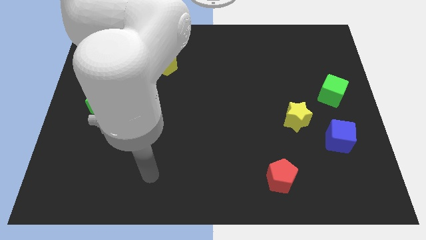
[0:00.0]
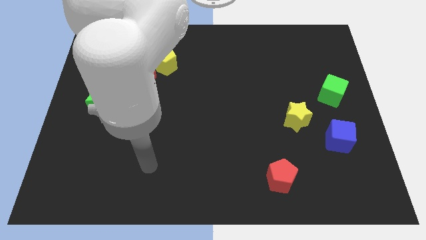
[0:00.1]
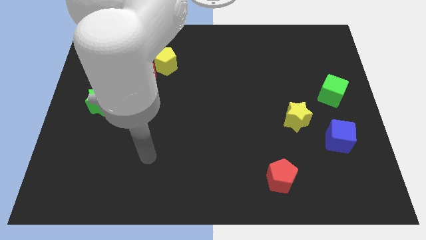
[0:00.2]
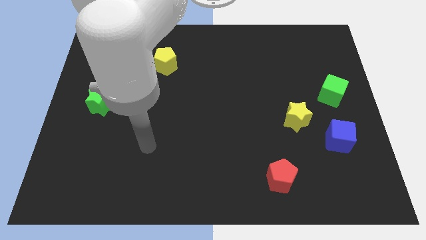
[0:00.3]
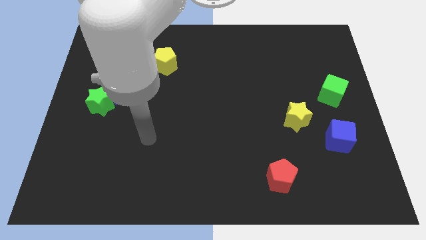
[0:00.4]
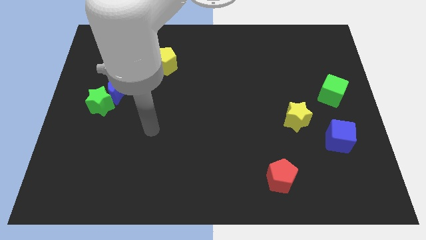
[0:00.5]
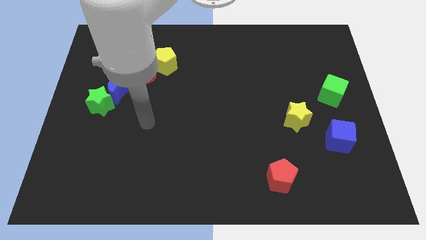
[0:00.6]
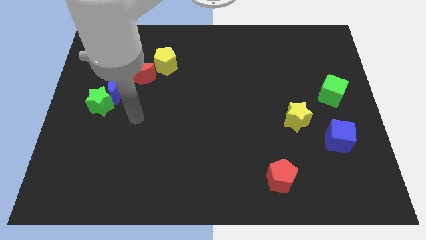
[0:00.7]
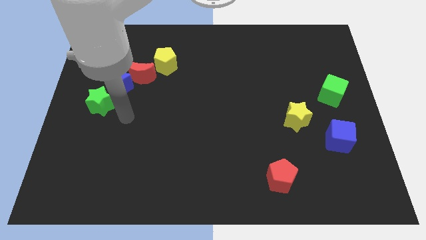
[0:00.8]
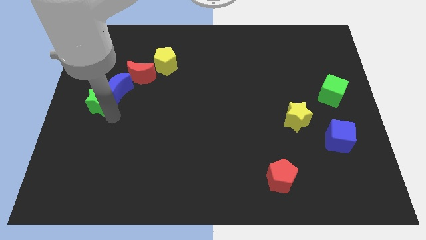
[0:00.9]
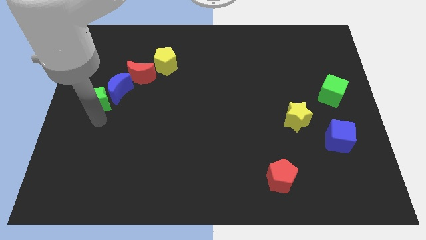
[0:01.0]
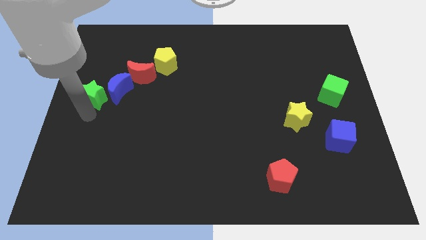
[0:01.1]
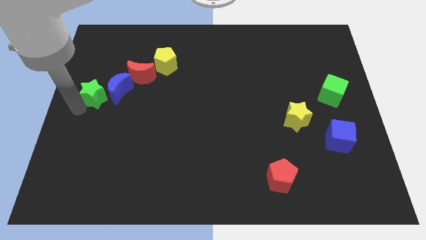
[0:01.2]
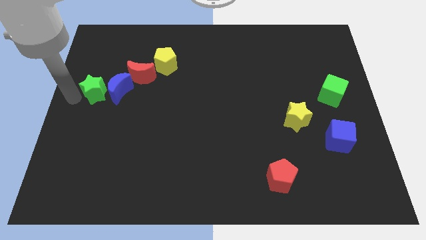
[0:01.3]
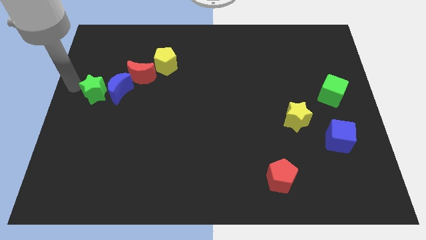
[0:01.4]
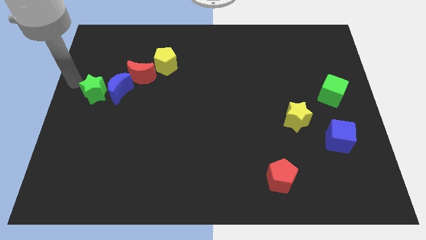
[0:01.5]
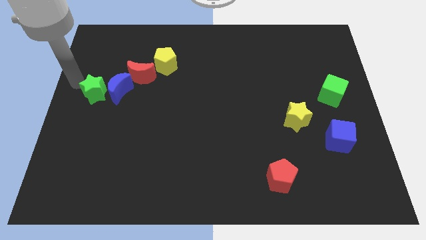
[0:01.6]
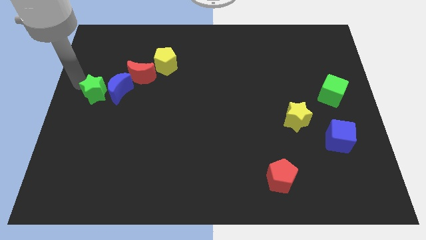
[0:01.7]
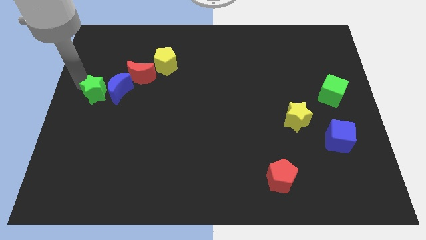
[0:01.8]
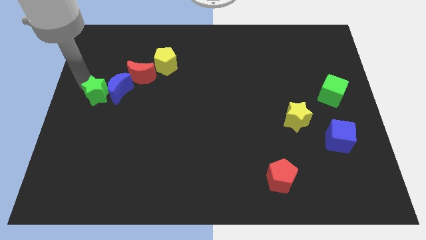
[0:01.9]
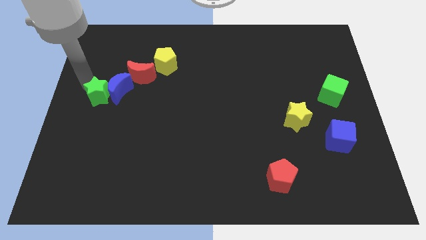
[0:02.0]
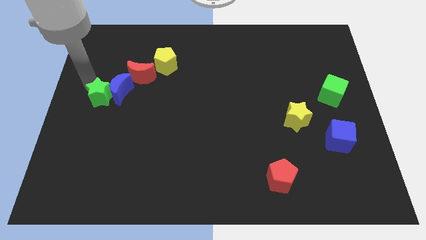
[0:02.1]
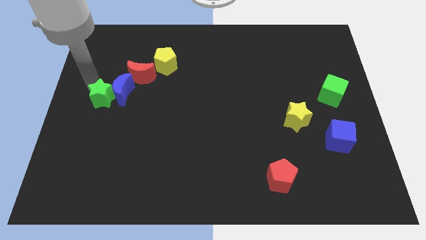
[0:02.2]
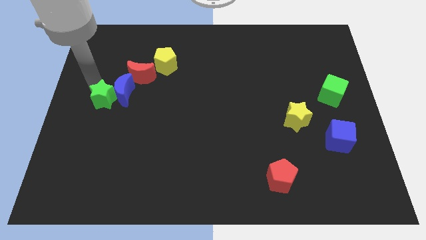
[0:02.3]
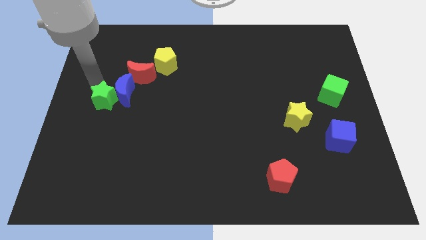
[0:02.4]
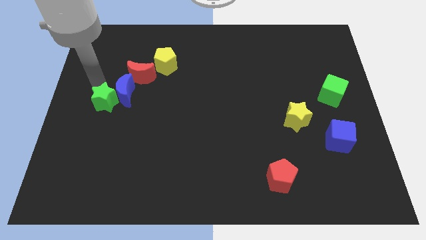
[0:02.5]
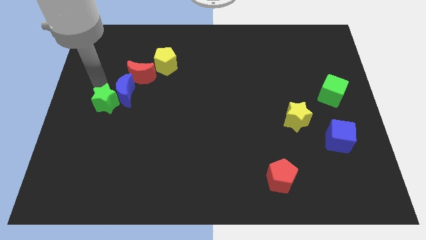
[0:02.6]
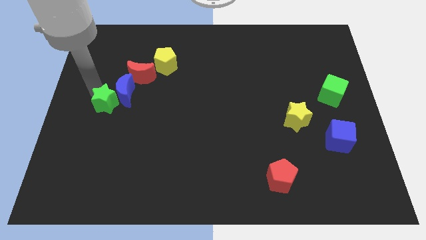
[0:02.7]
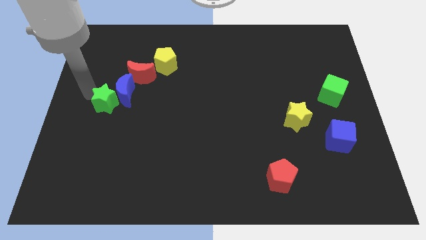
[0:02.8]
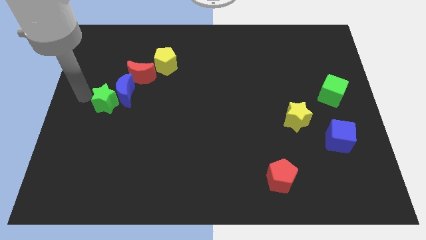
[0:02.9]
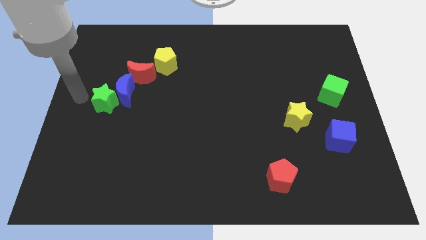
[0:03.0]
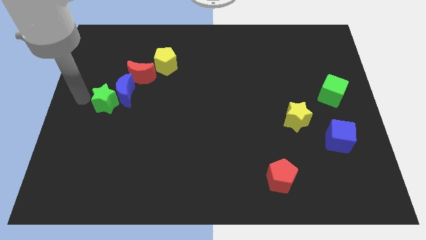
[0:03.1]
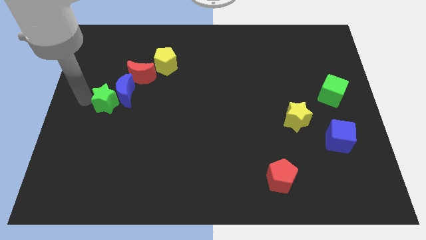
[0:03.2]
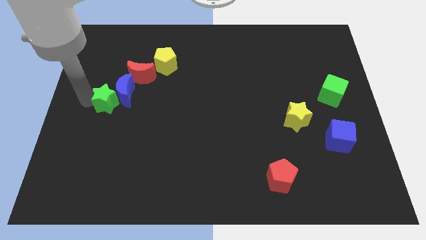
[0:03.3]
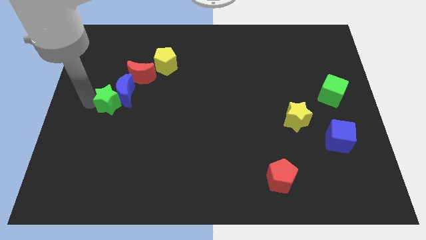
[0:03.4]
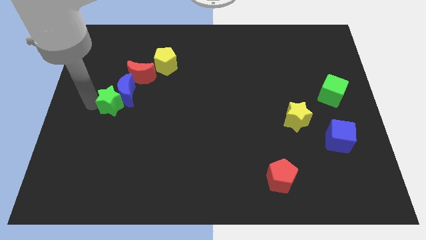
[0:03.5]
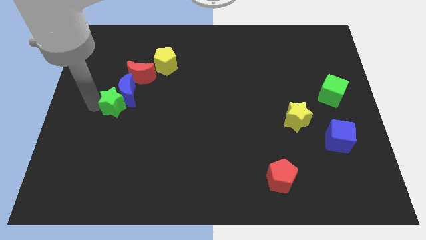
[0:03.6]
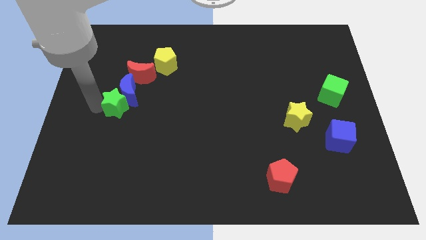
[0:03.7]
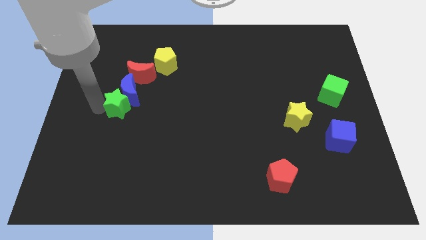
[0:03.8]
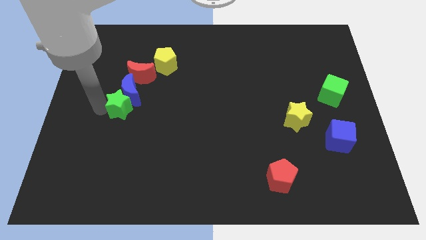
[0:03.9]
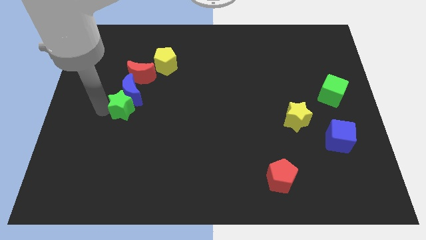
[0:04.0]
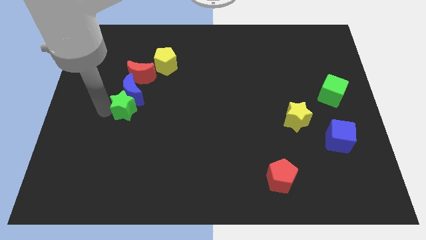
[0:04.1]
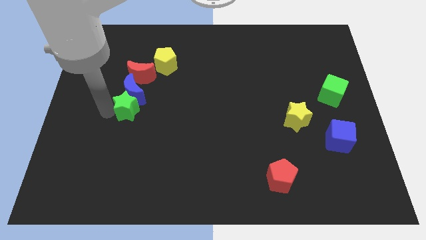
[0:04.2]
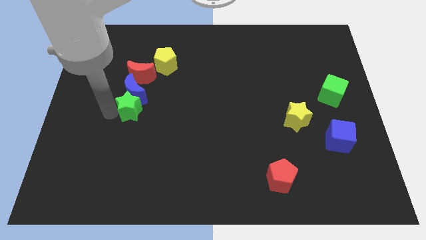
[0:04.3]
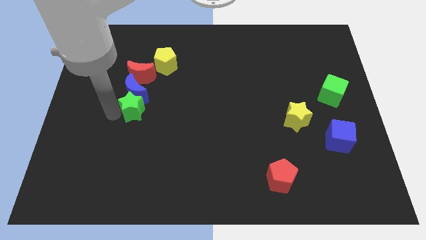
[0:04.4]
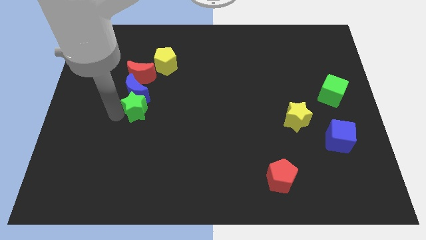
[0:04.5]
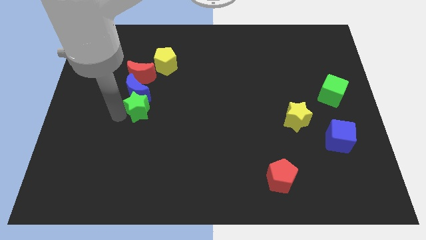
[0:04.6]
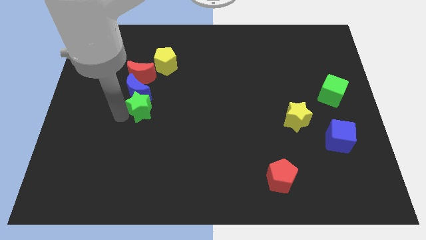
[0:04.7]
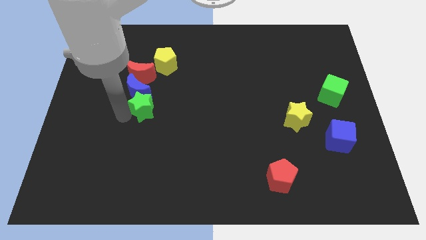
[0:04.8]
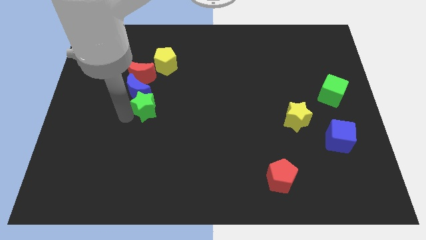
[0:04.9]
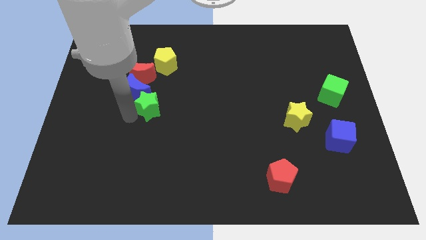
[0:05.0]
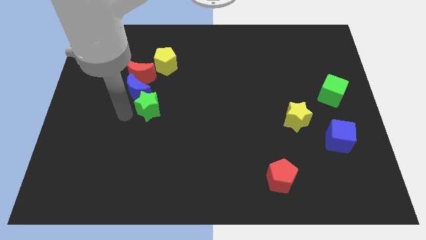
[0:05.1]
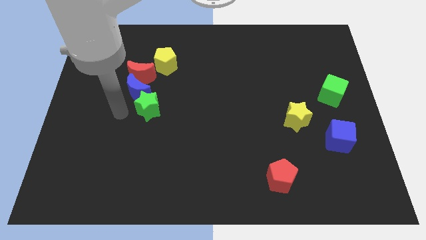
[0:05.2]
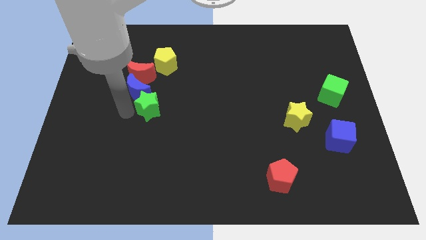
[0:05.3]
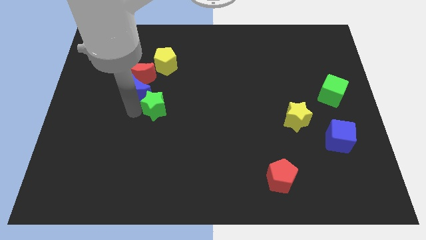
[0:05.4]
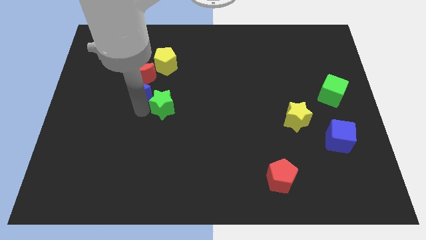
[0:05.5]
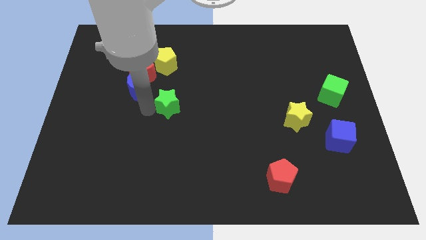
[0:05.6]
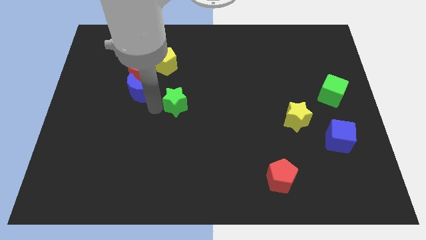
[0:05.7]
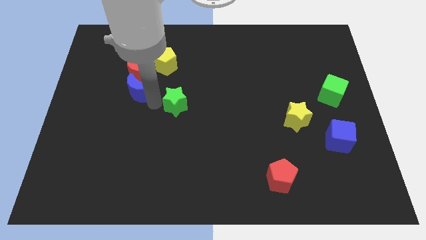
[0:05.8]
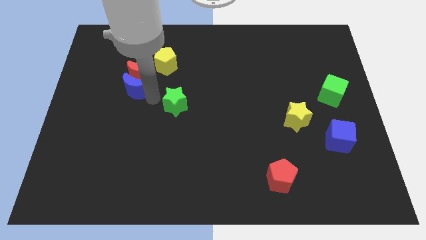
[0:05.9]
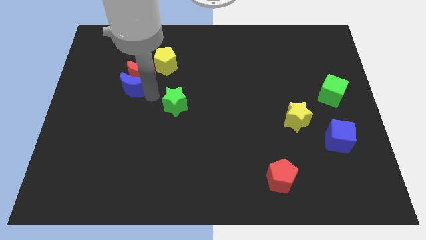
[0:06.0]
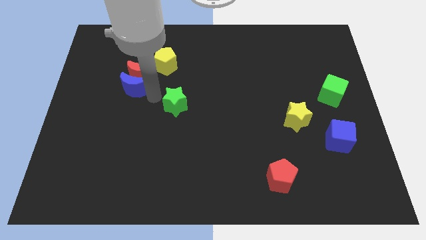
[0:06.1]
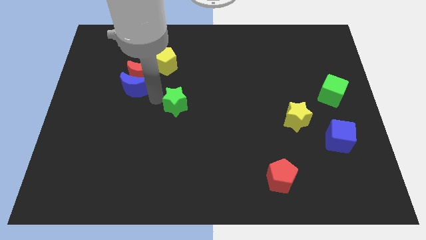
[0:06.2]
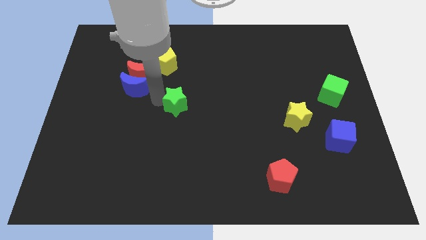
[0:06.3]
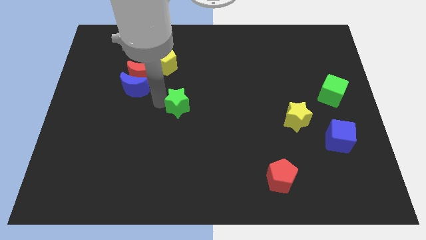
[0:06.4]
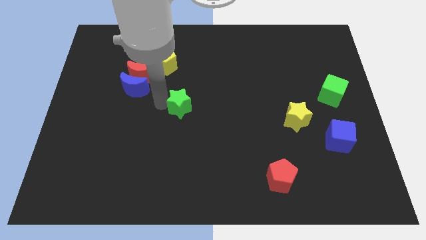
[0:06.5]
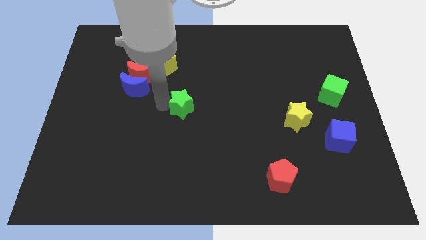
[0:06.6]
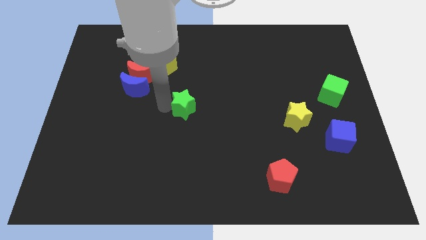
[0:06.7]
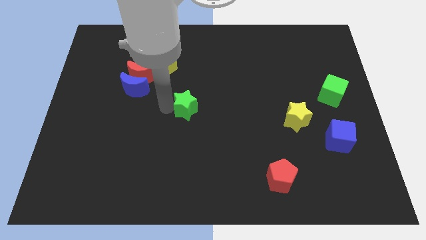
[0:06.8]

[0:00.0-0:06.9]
slide the green star to the right

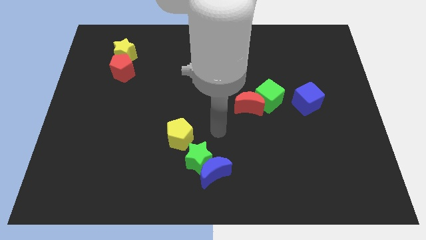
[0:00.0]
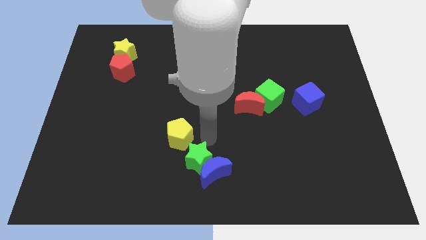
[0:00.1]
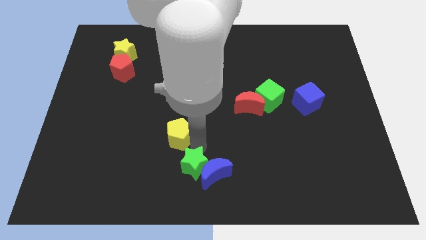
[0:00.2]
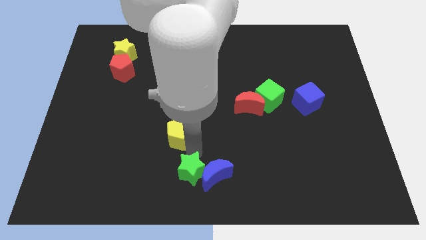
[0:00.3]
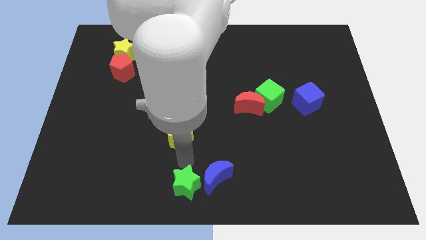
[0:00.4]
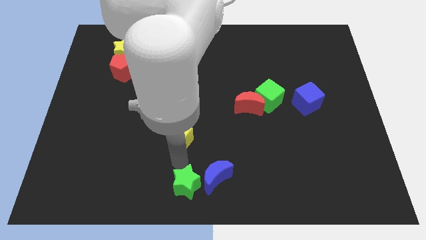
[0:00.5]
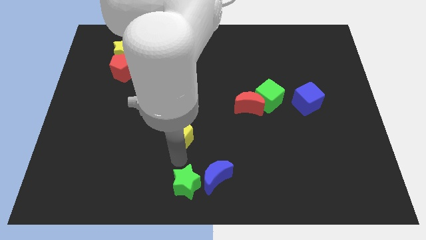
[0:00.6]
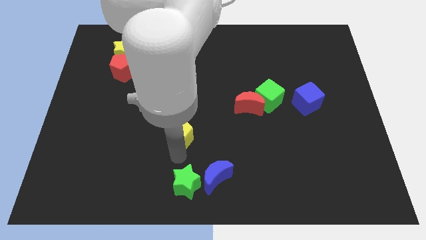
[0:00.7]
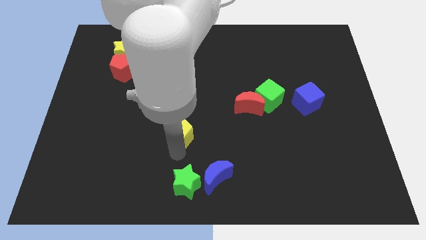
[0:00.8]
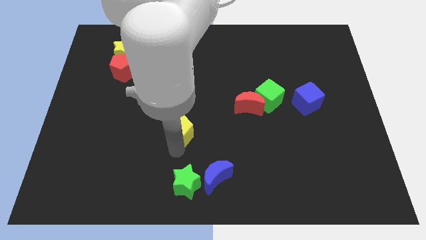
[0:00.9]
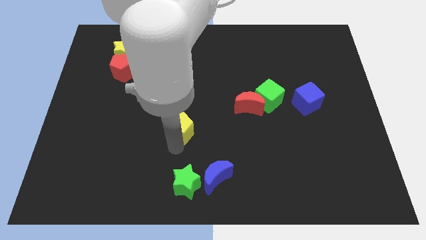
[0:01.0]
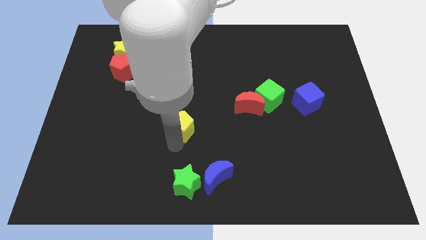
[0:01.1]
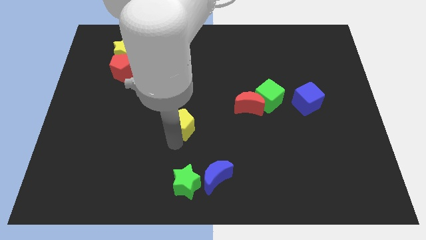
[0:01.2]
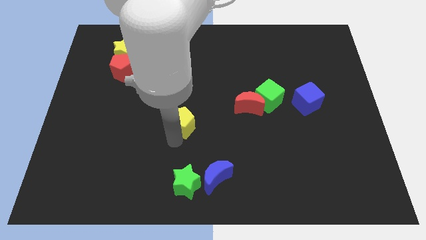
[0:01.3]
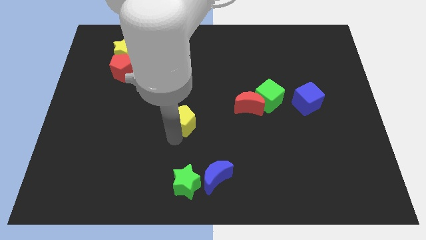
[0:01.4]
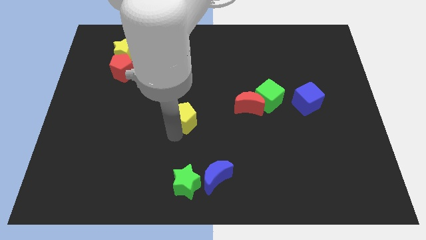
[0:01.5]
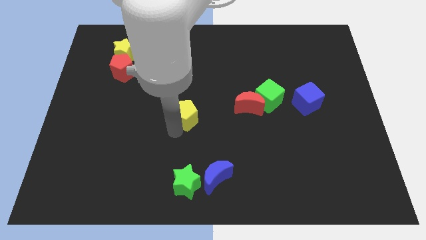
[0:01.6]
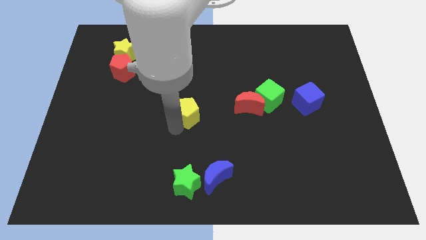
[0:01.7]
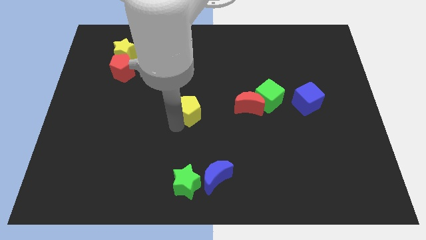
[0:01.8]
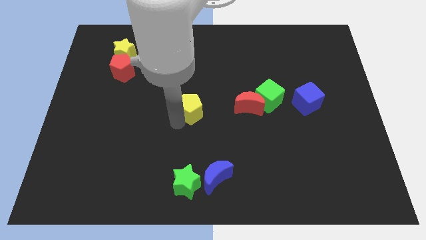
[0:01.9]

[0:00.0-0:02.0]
push the yellow pentagon a little bit up
